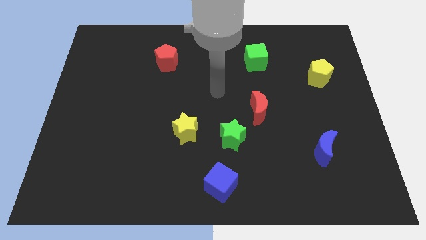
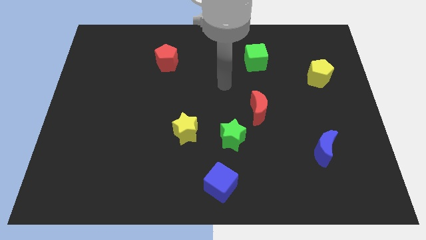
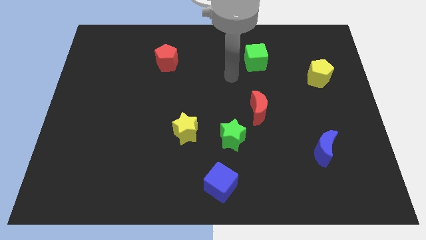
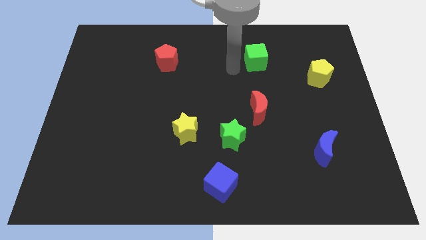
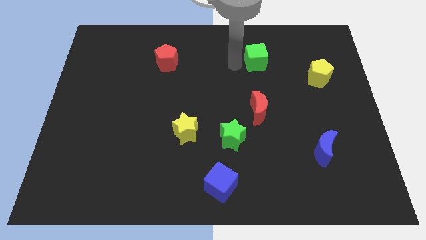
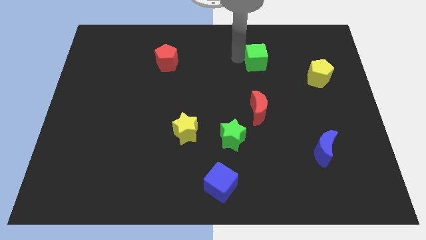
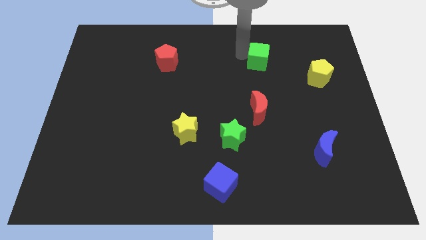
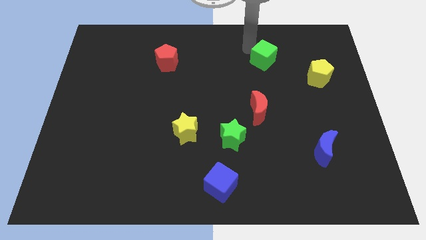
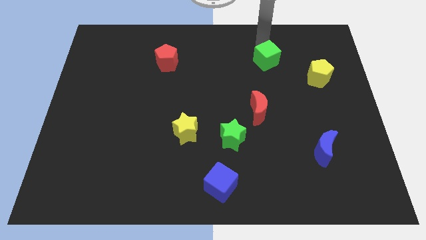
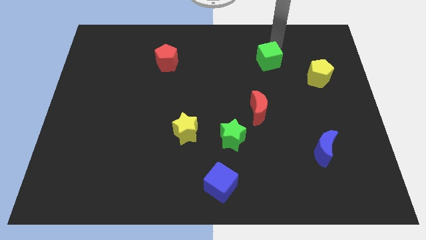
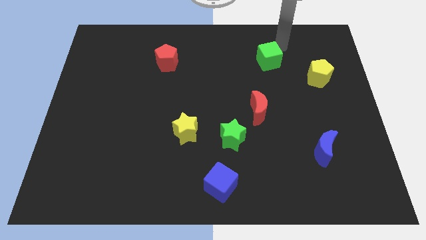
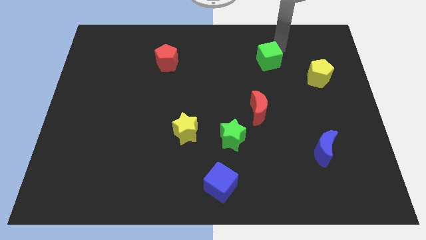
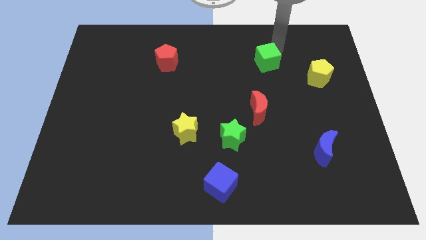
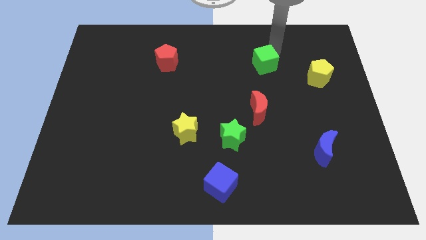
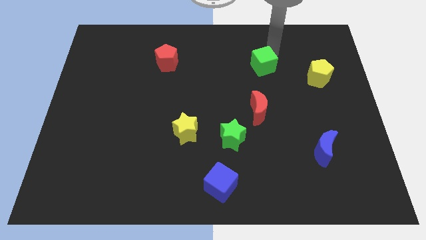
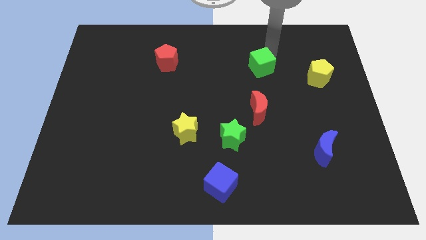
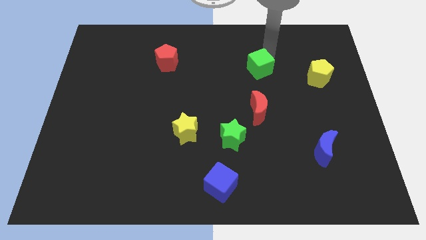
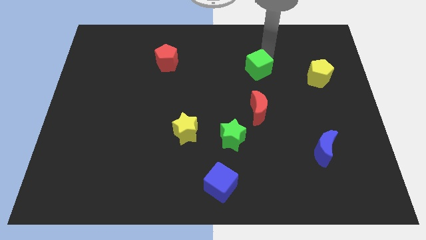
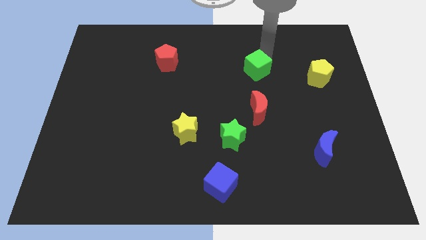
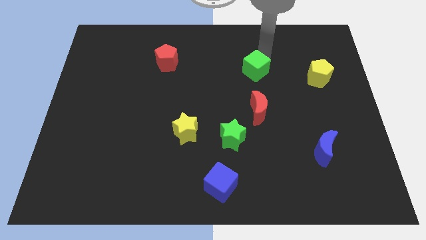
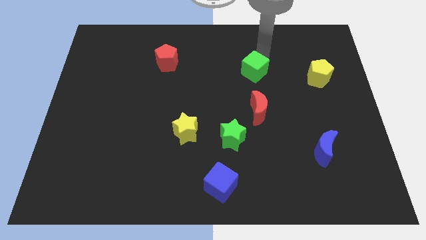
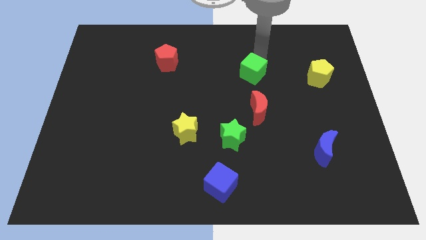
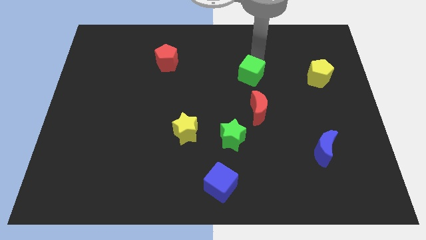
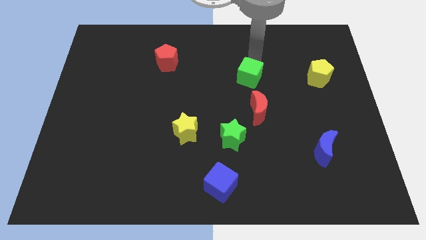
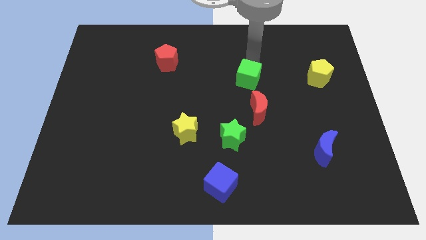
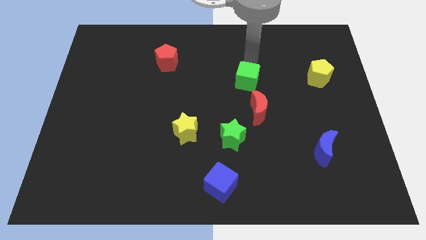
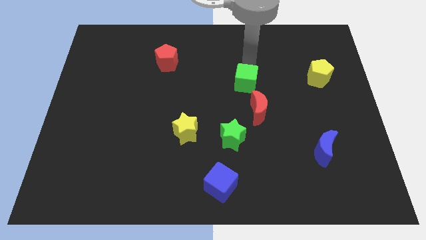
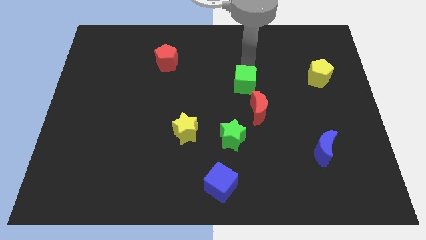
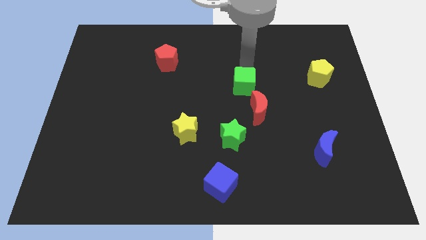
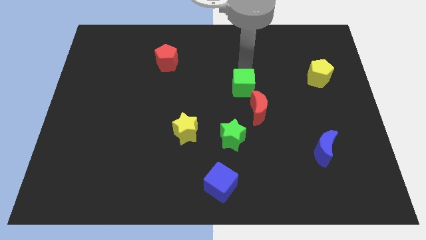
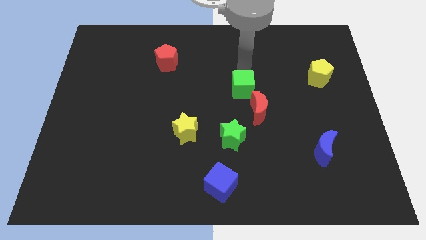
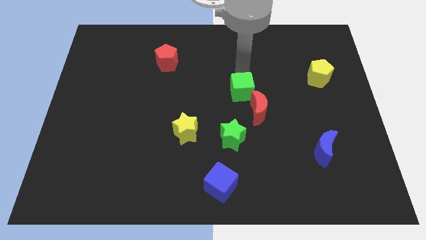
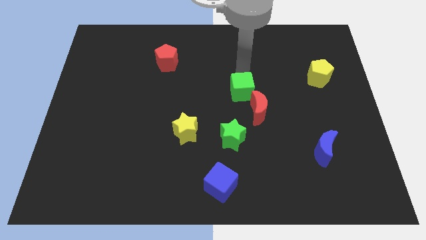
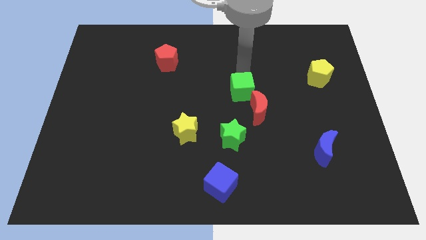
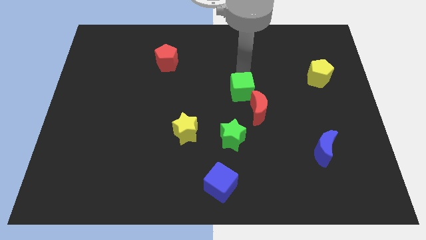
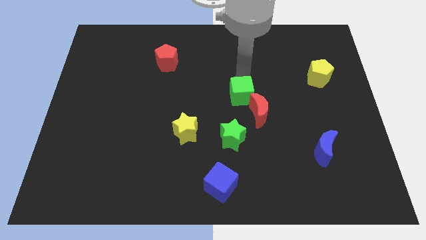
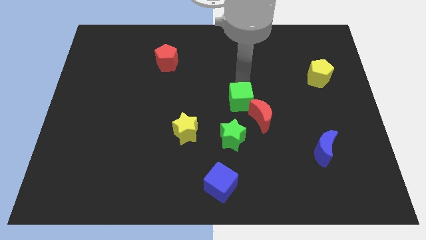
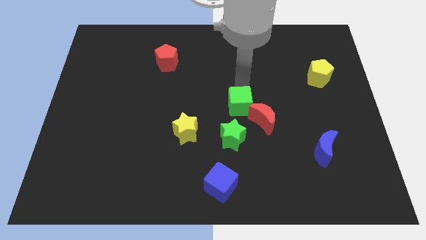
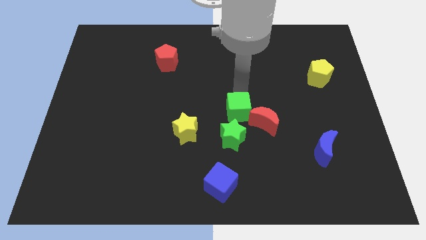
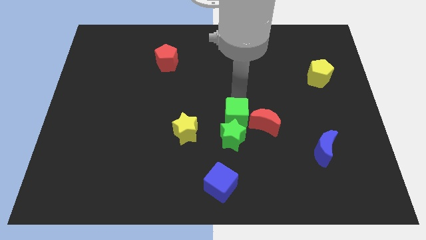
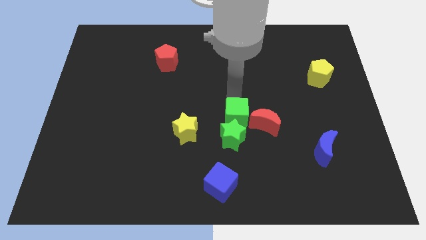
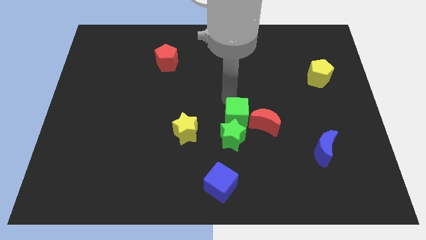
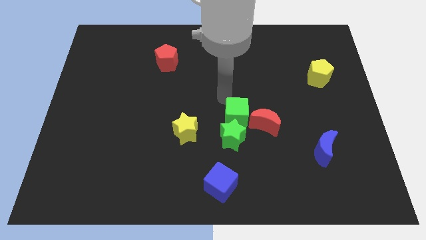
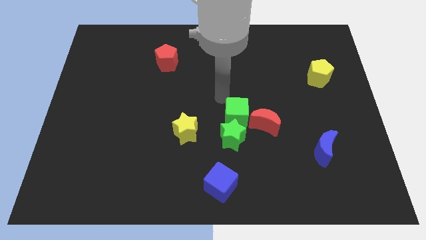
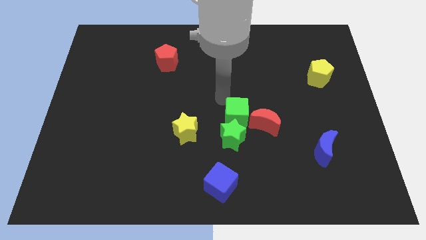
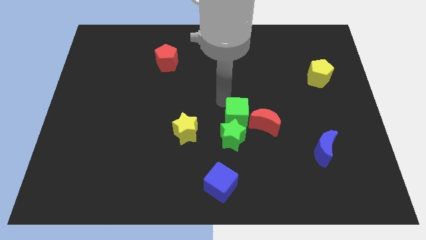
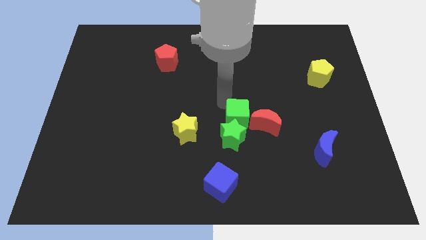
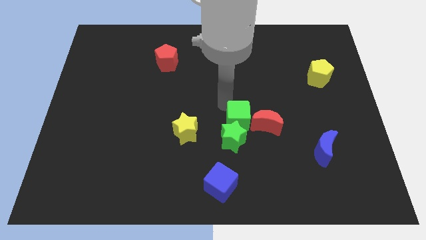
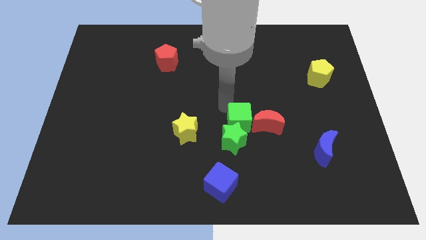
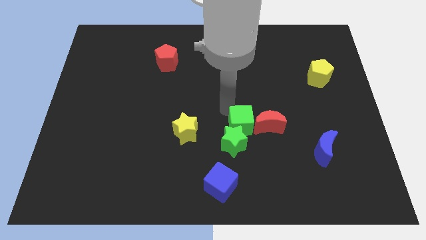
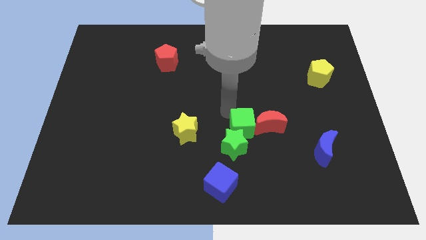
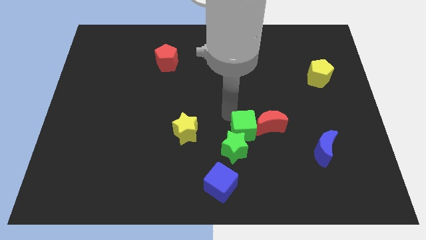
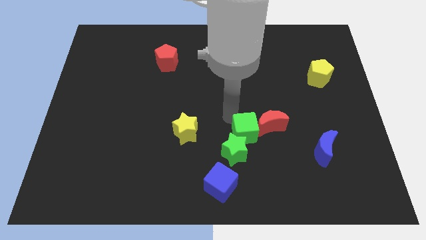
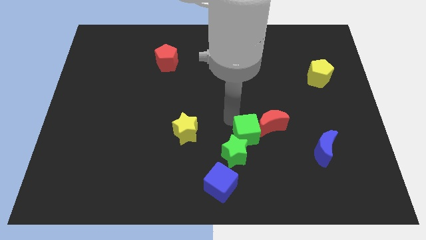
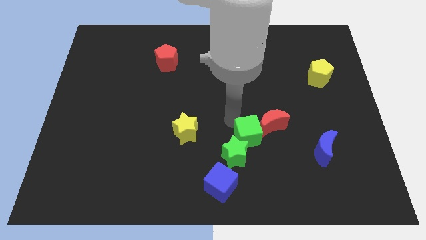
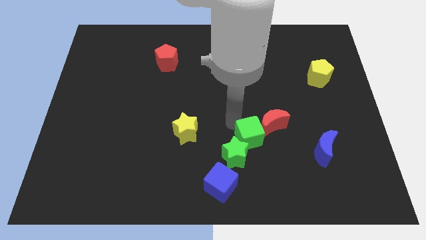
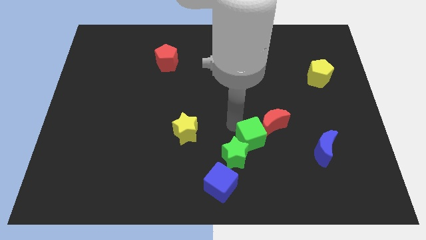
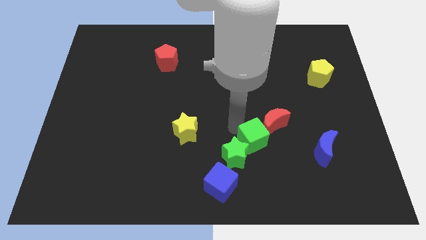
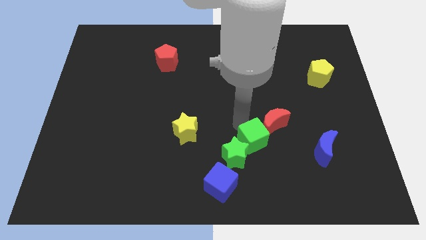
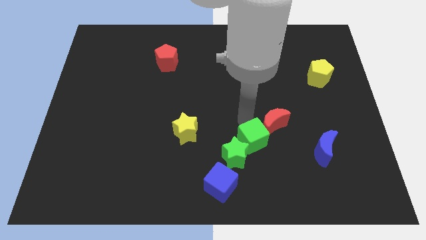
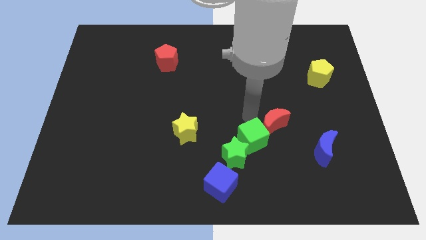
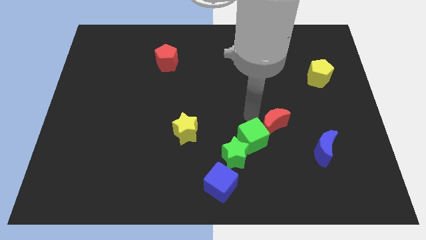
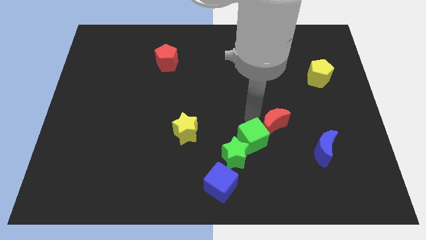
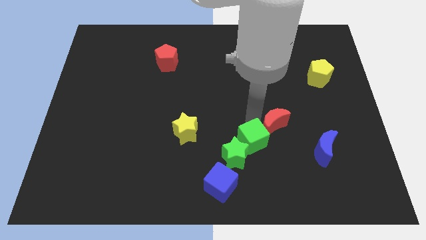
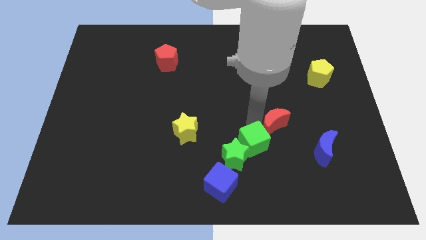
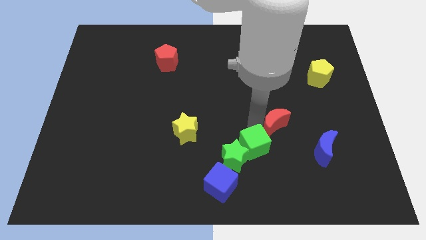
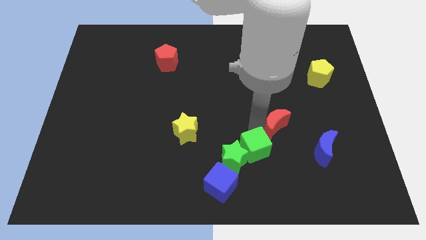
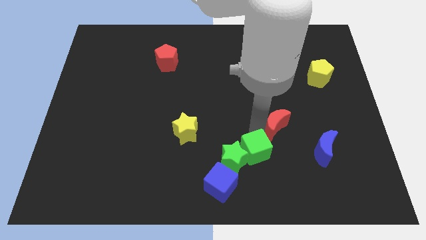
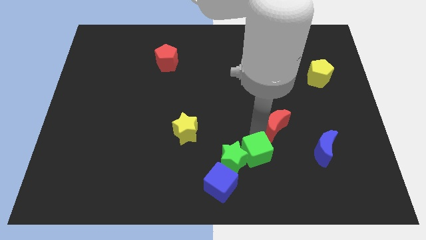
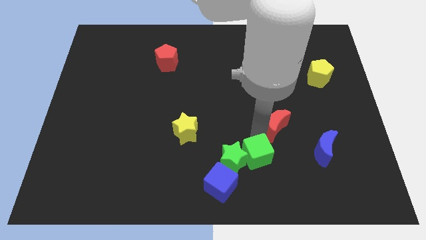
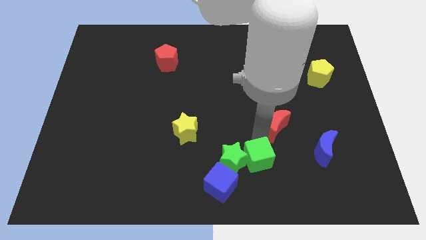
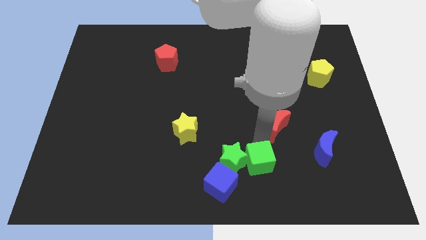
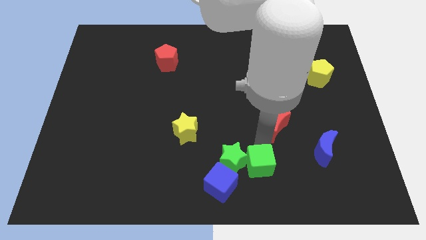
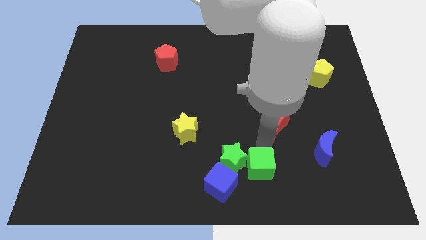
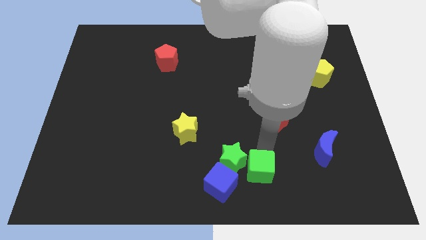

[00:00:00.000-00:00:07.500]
push the green cube to the bottom side

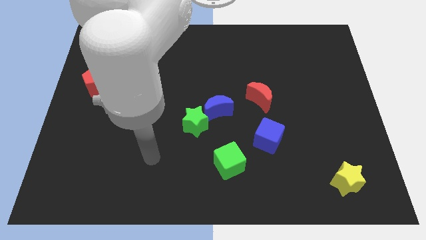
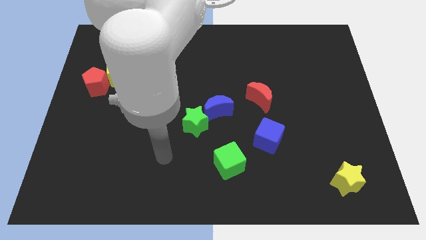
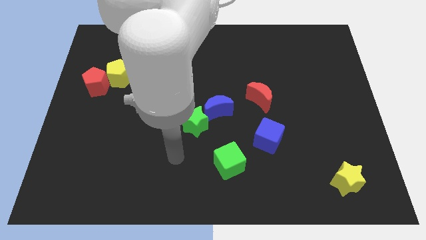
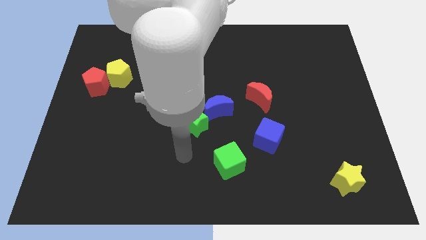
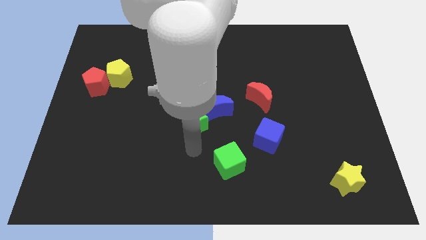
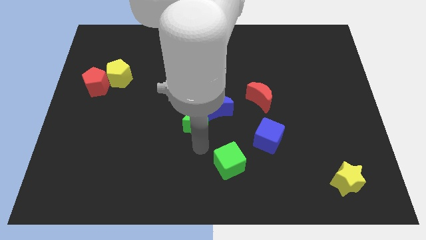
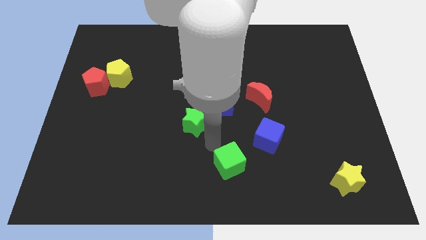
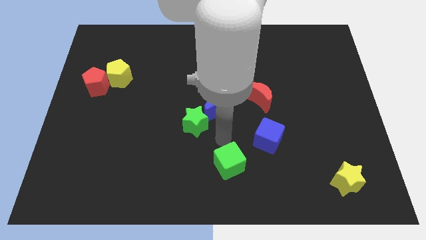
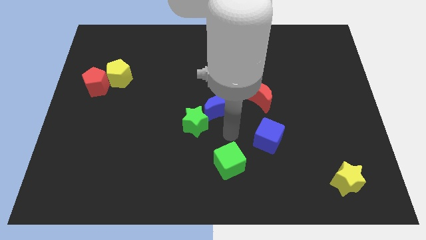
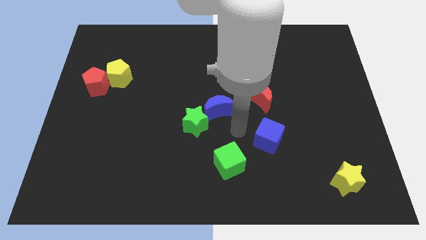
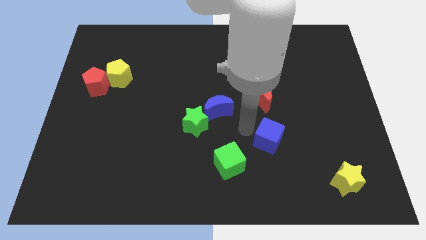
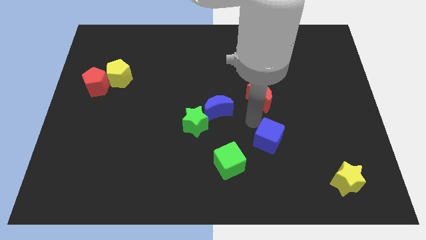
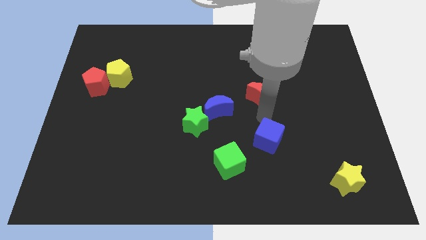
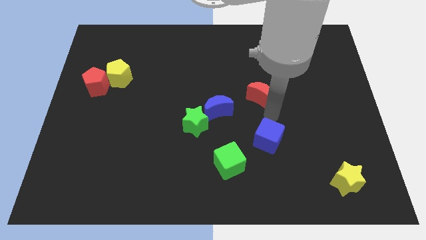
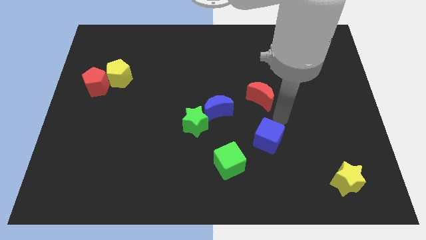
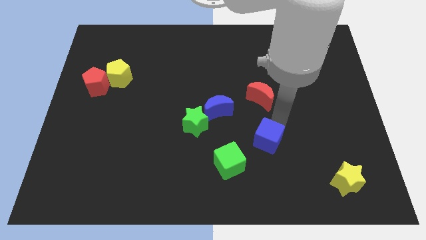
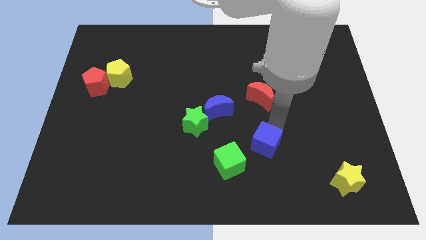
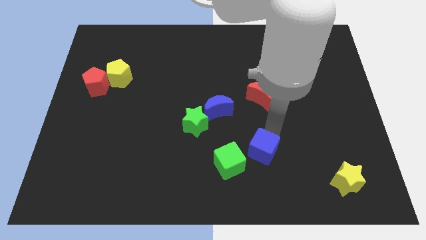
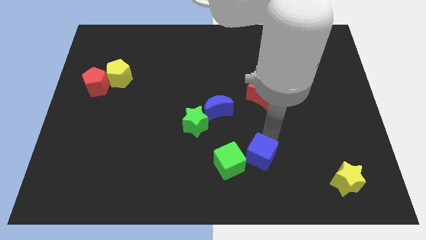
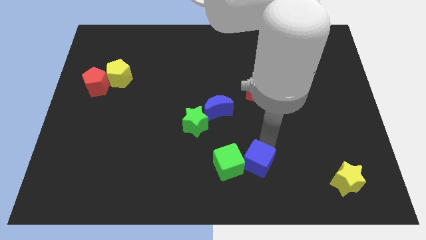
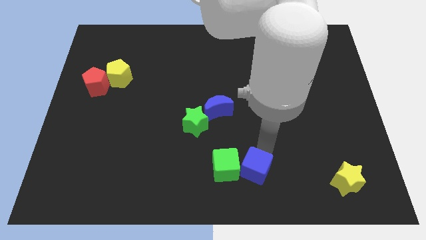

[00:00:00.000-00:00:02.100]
move the blue cube to the bottom side
